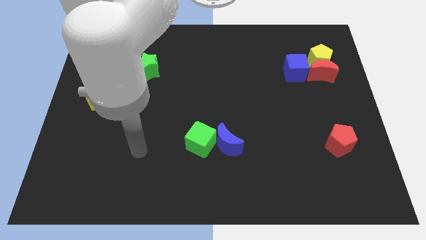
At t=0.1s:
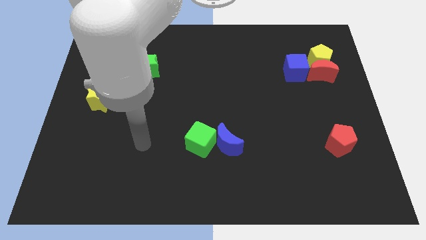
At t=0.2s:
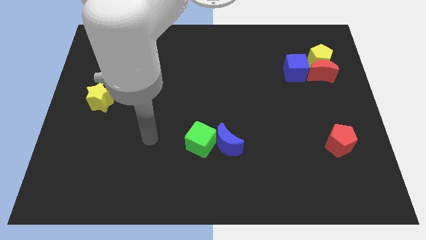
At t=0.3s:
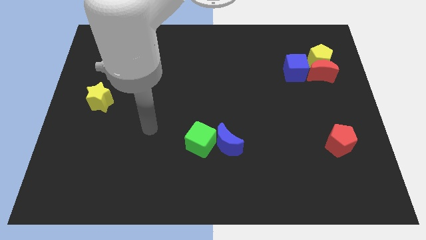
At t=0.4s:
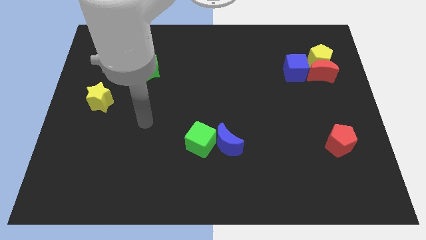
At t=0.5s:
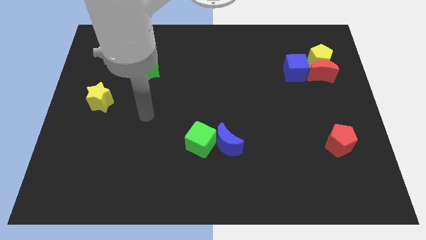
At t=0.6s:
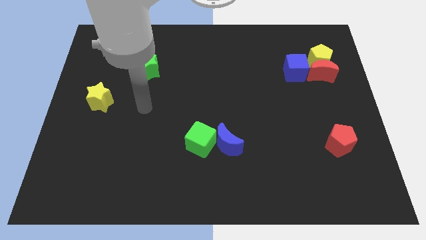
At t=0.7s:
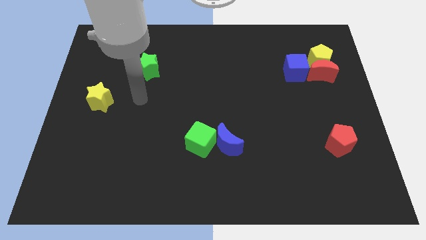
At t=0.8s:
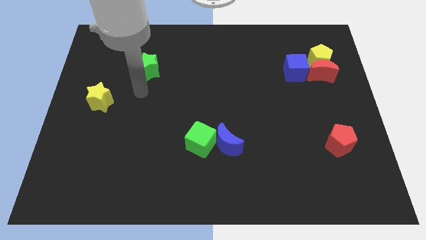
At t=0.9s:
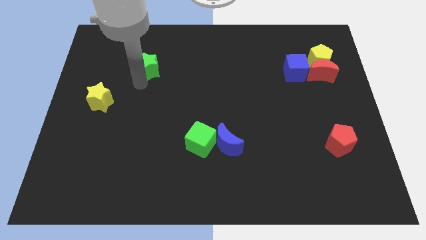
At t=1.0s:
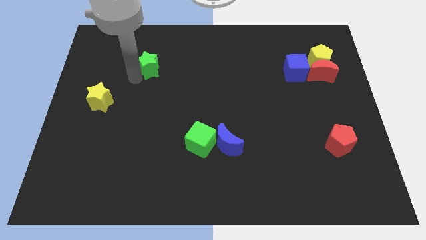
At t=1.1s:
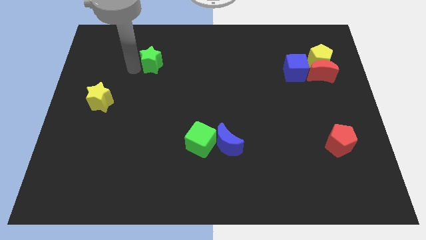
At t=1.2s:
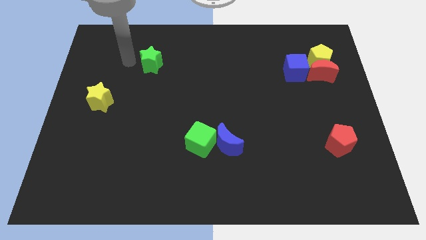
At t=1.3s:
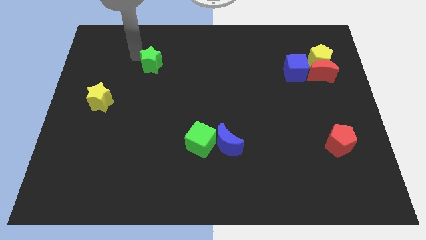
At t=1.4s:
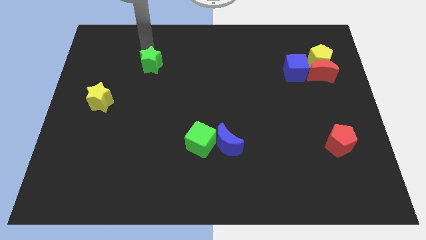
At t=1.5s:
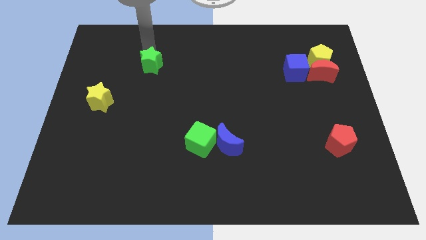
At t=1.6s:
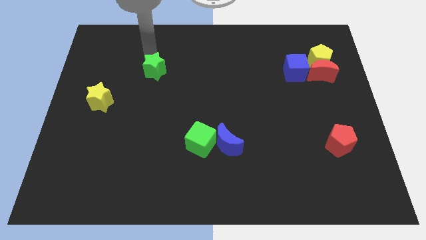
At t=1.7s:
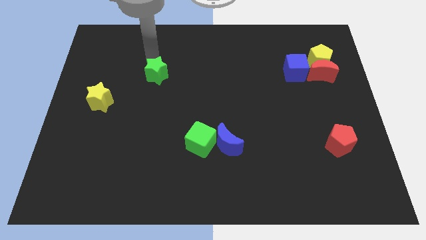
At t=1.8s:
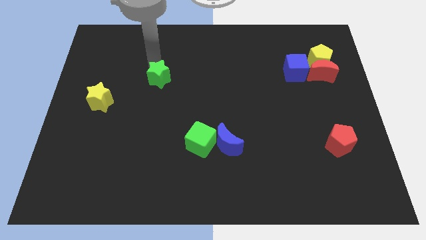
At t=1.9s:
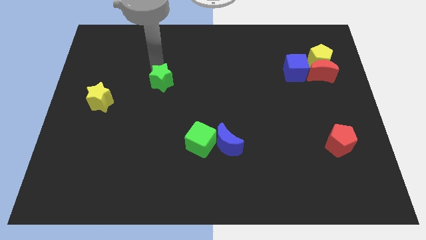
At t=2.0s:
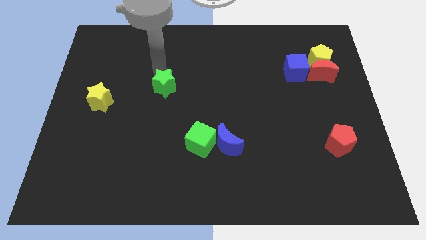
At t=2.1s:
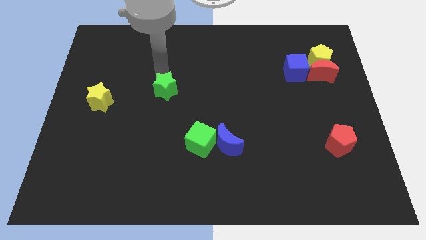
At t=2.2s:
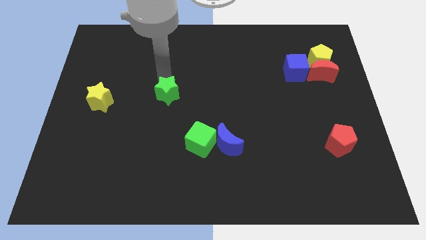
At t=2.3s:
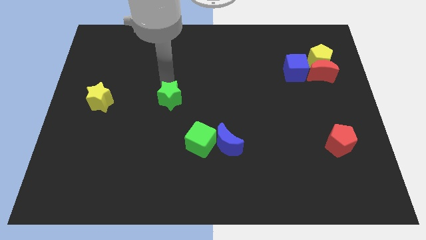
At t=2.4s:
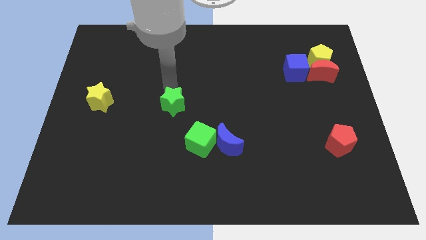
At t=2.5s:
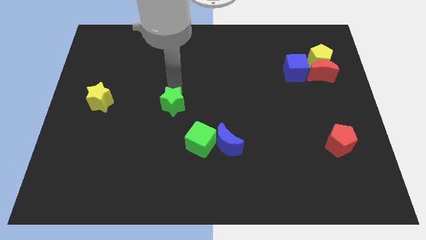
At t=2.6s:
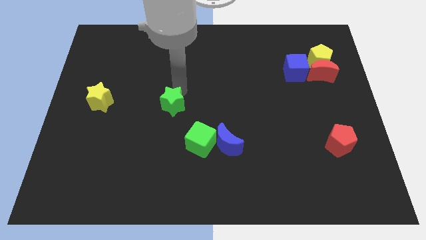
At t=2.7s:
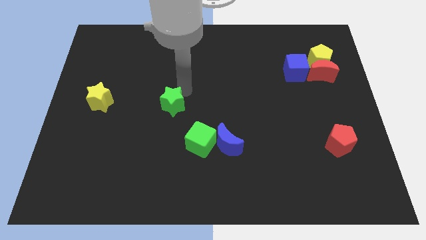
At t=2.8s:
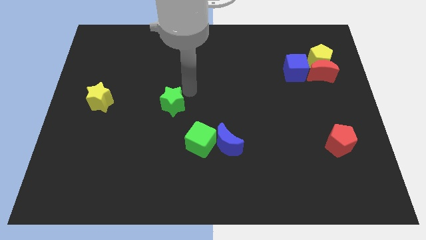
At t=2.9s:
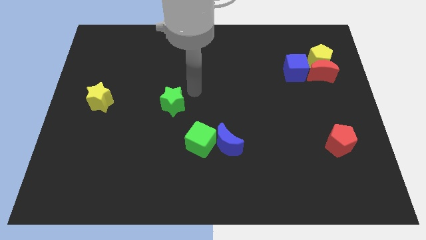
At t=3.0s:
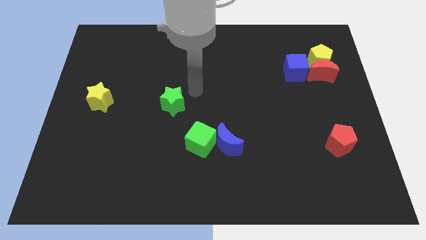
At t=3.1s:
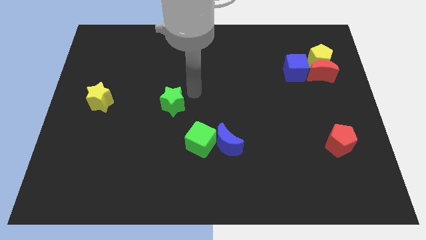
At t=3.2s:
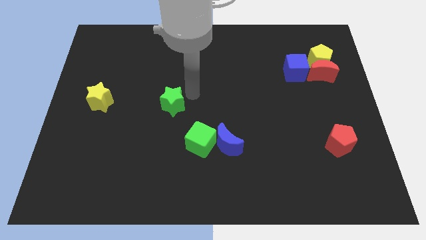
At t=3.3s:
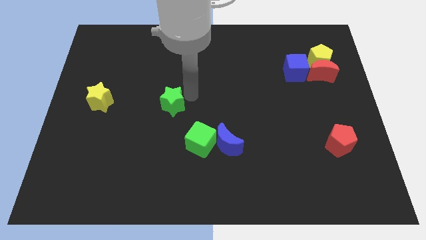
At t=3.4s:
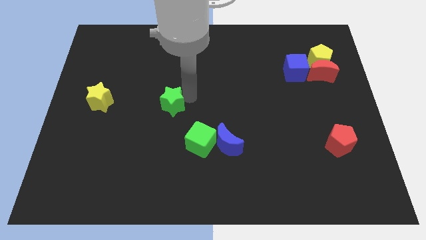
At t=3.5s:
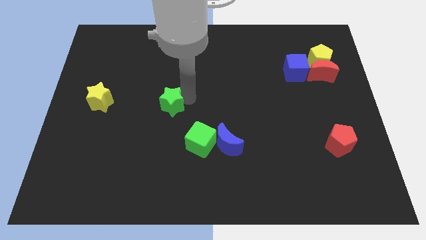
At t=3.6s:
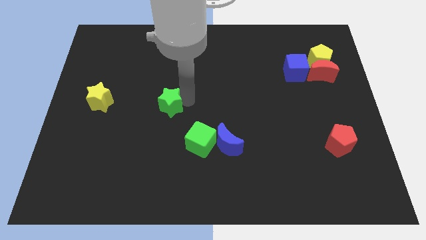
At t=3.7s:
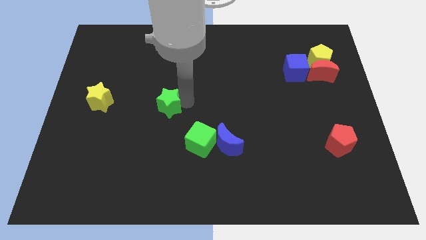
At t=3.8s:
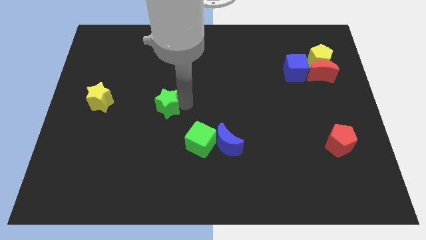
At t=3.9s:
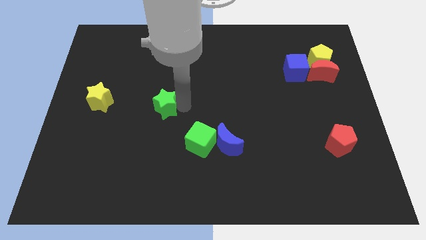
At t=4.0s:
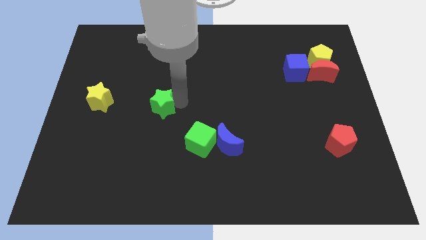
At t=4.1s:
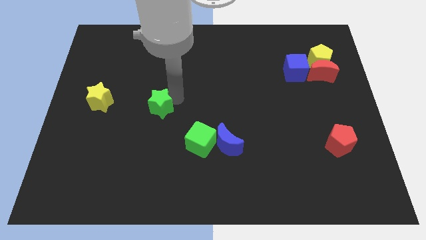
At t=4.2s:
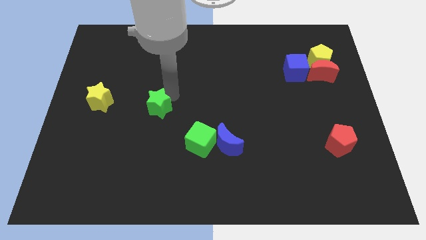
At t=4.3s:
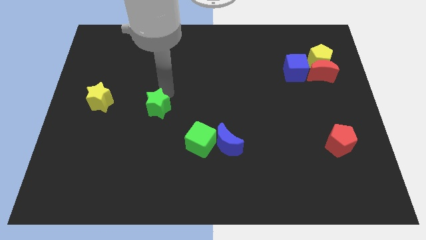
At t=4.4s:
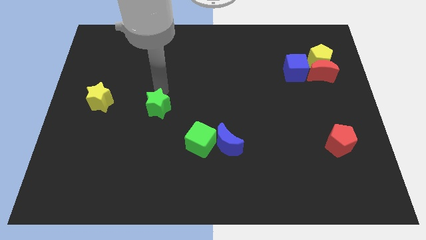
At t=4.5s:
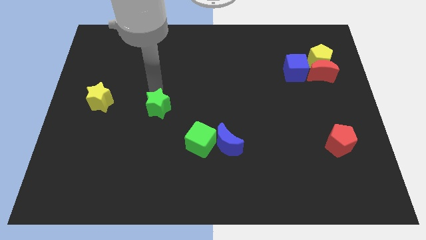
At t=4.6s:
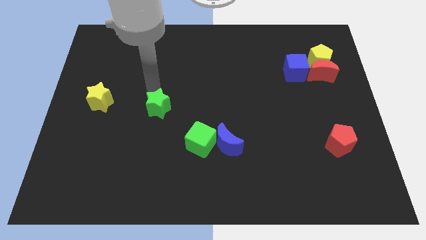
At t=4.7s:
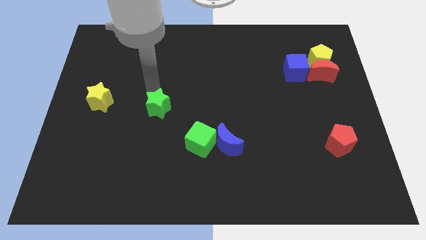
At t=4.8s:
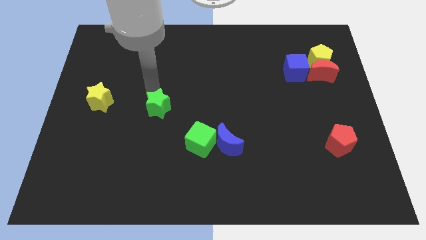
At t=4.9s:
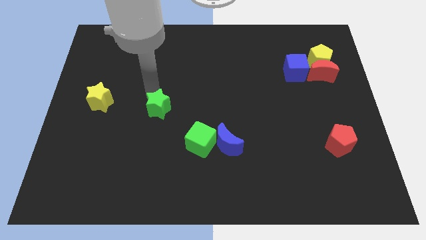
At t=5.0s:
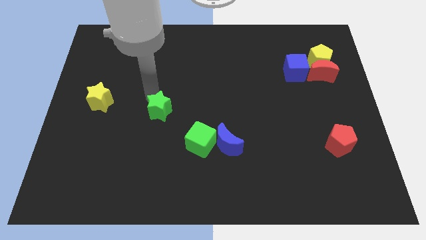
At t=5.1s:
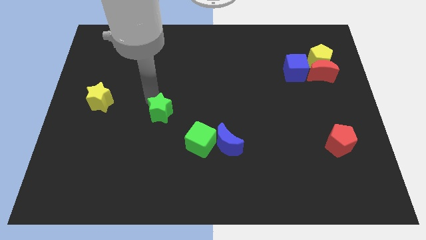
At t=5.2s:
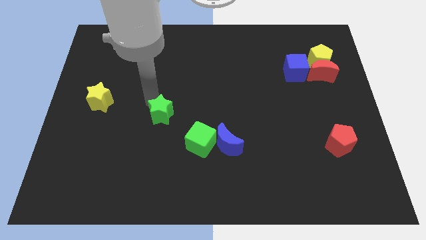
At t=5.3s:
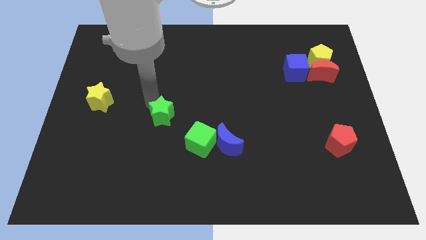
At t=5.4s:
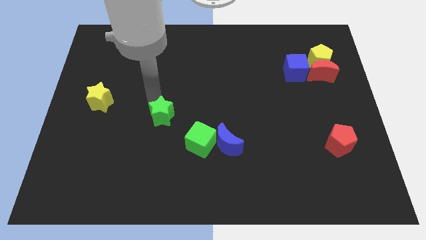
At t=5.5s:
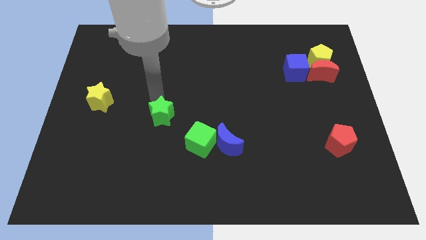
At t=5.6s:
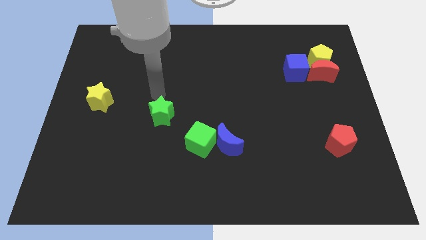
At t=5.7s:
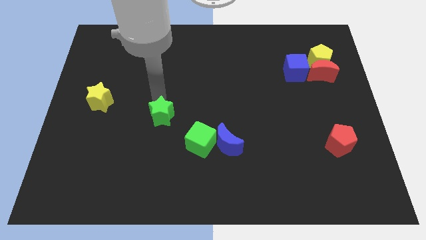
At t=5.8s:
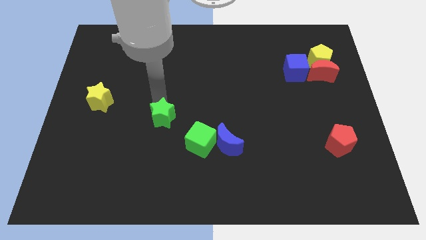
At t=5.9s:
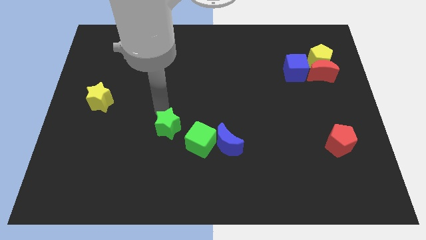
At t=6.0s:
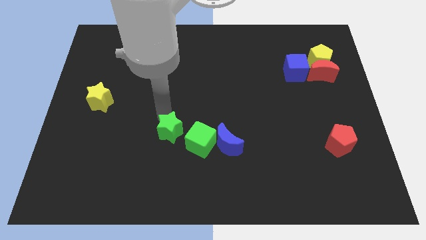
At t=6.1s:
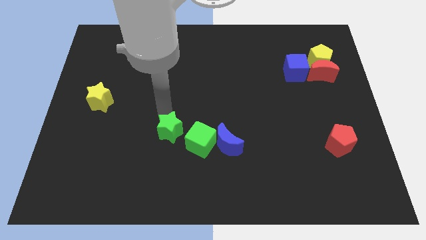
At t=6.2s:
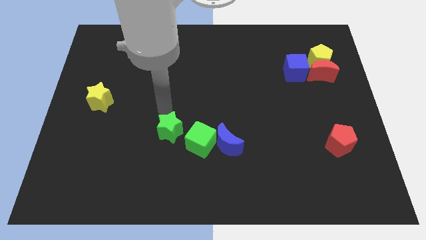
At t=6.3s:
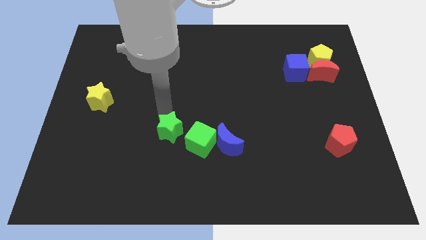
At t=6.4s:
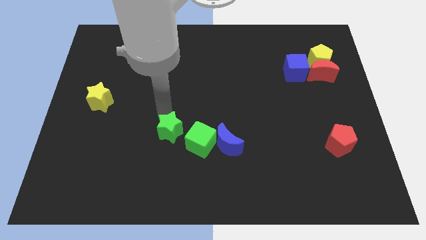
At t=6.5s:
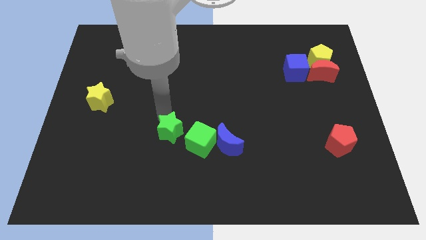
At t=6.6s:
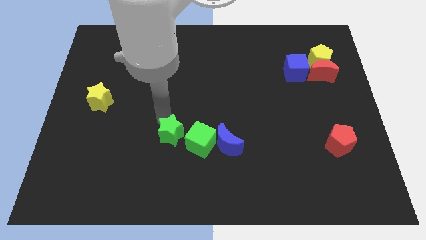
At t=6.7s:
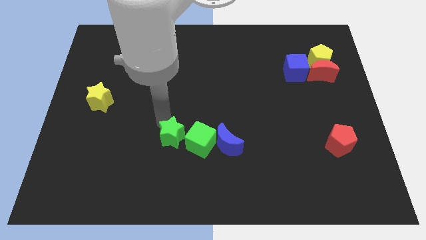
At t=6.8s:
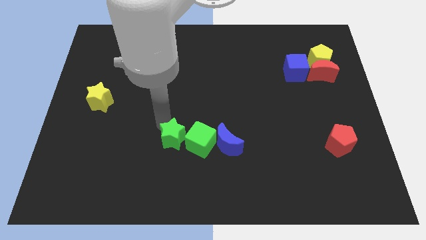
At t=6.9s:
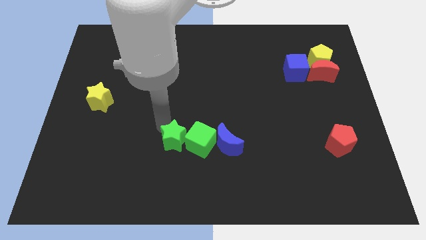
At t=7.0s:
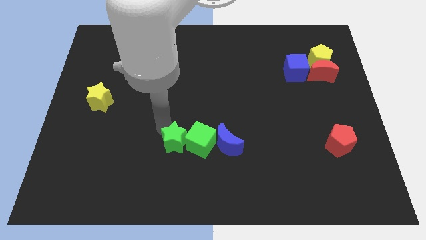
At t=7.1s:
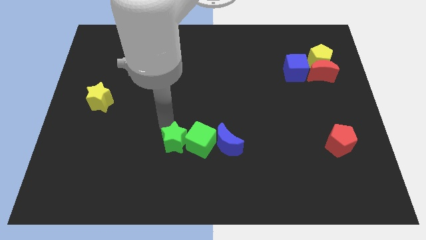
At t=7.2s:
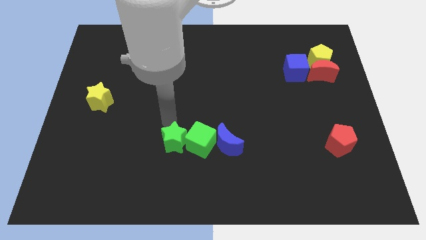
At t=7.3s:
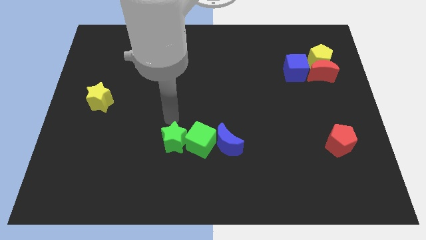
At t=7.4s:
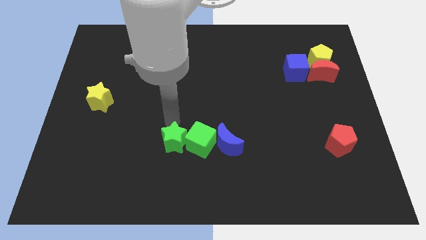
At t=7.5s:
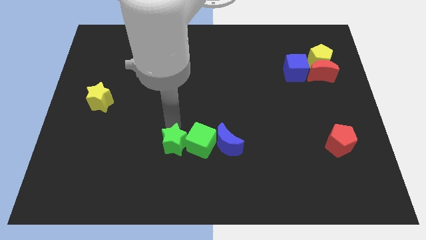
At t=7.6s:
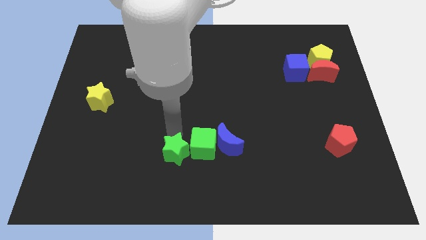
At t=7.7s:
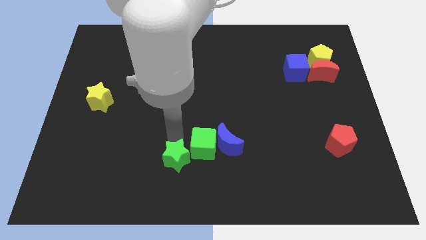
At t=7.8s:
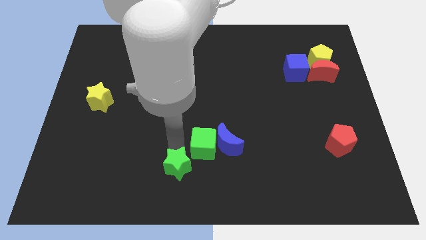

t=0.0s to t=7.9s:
push the green star to the bottom
